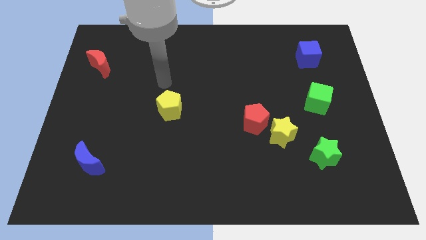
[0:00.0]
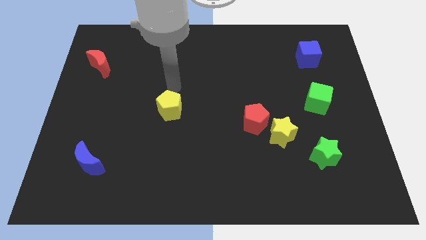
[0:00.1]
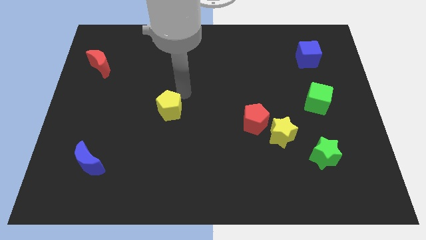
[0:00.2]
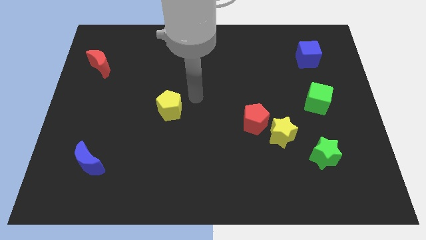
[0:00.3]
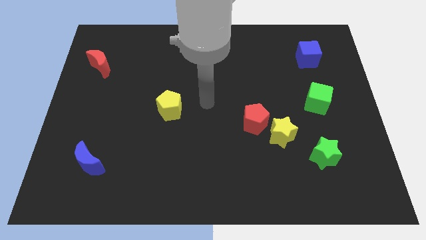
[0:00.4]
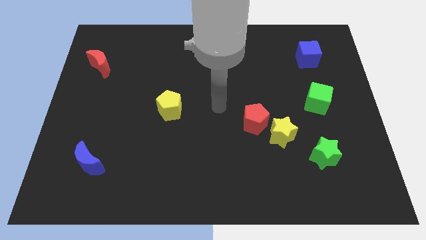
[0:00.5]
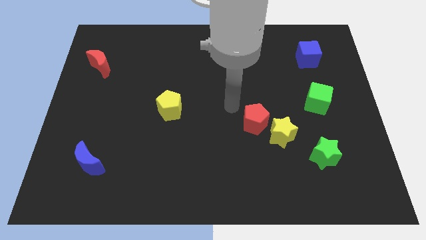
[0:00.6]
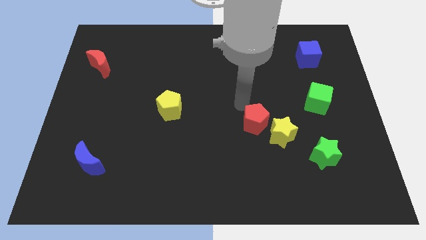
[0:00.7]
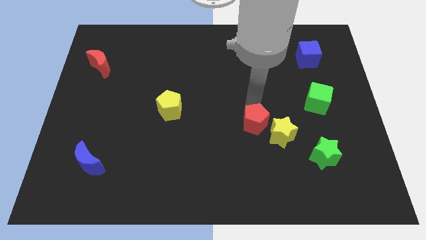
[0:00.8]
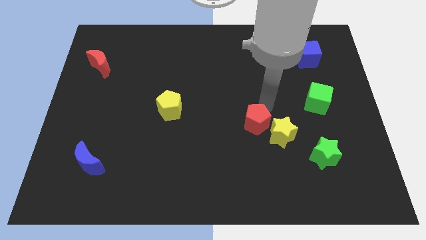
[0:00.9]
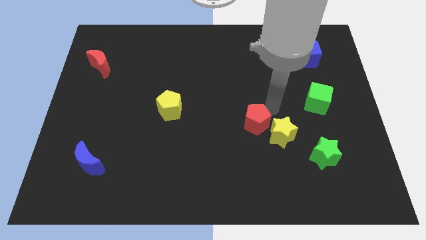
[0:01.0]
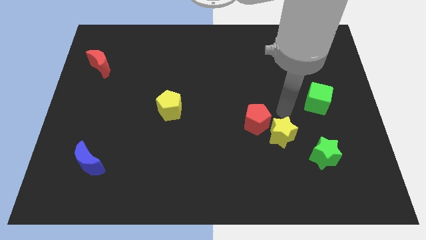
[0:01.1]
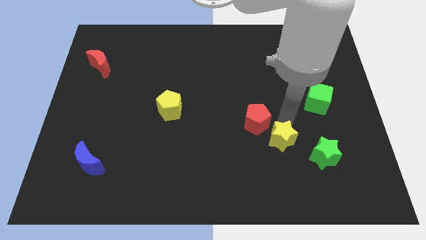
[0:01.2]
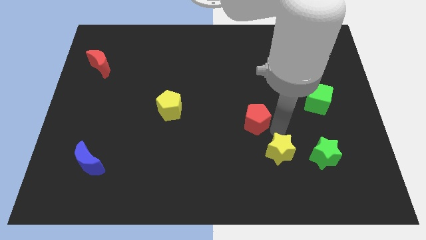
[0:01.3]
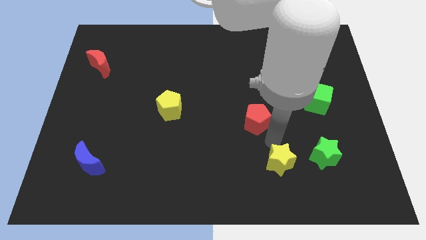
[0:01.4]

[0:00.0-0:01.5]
separate the red pentagon from the yellow star

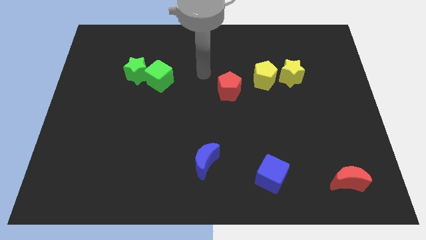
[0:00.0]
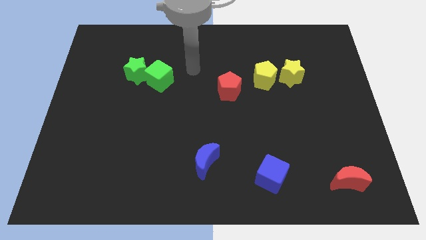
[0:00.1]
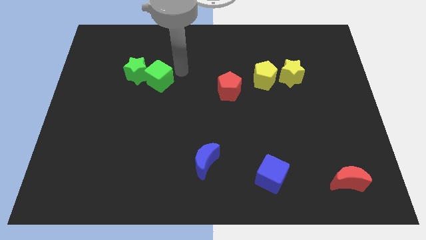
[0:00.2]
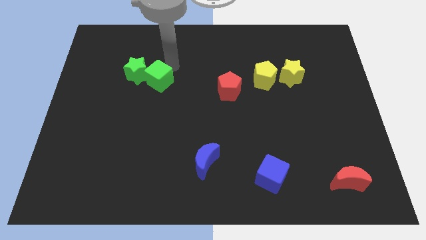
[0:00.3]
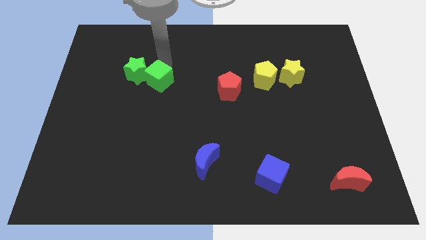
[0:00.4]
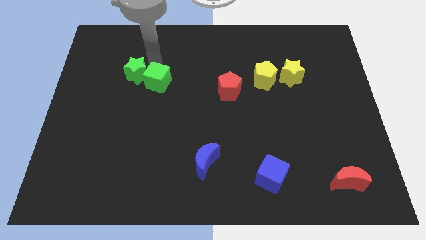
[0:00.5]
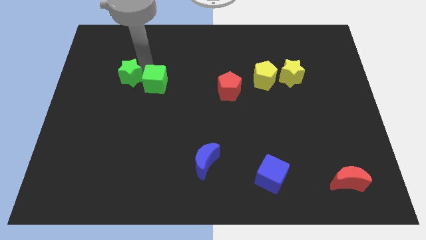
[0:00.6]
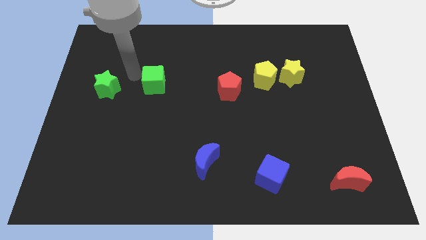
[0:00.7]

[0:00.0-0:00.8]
separate the green cube from the green star

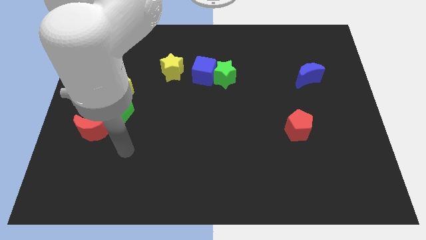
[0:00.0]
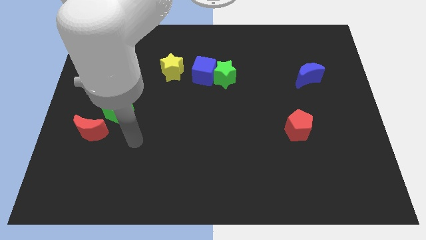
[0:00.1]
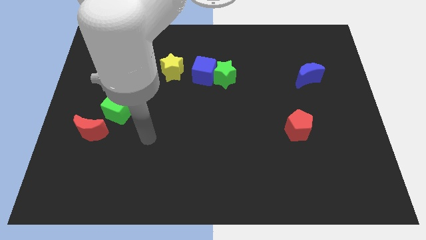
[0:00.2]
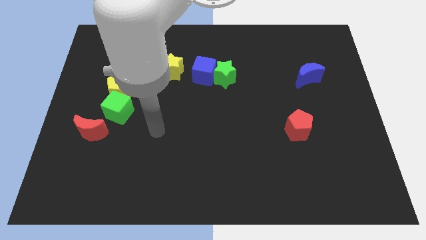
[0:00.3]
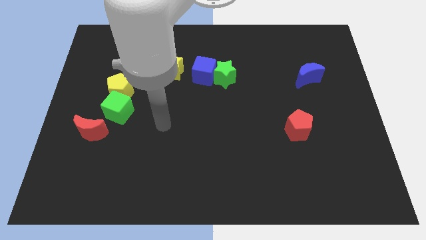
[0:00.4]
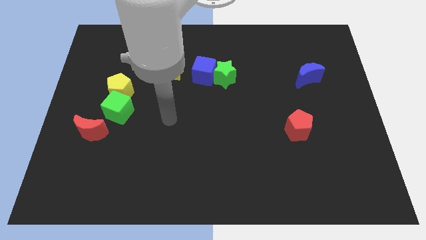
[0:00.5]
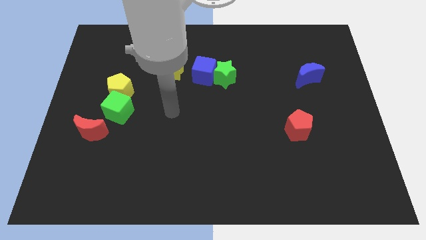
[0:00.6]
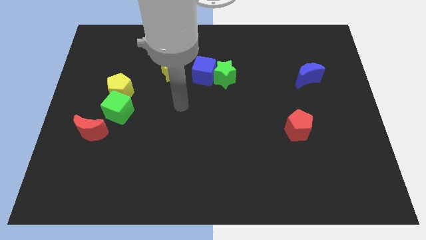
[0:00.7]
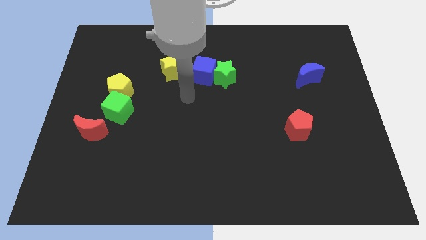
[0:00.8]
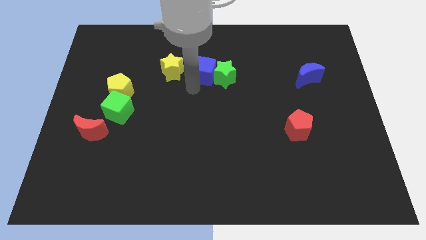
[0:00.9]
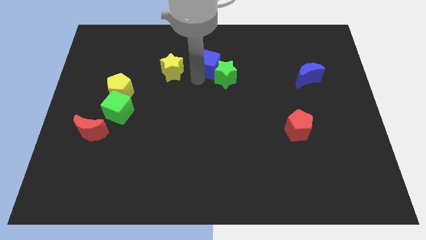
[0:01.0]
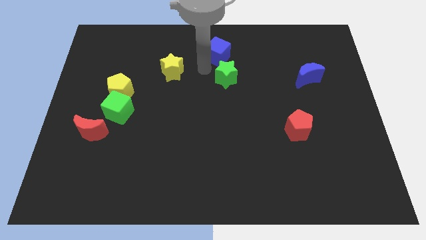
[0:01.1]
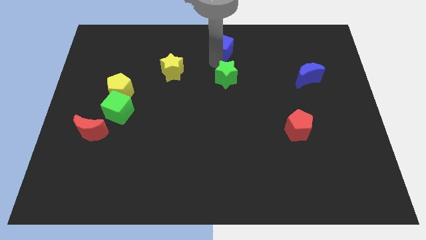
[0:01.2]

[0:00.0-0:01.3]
separate the green star from the blue cube

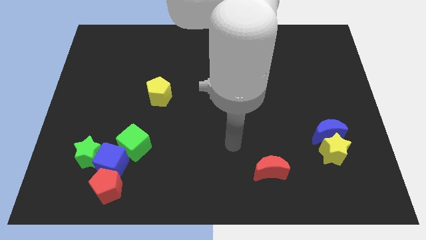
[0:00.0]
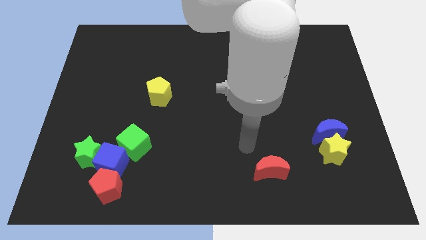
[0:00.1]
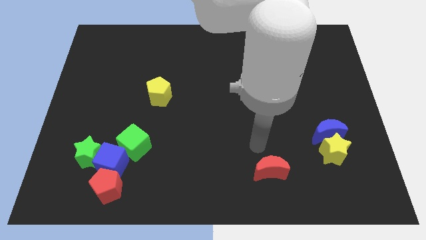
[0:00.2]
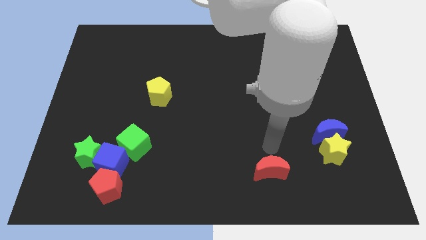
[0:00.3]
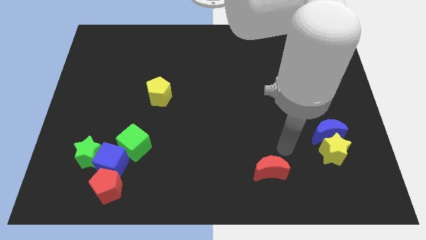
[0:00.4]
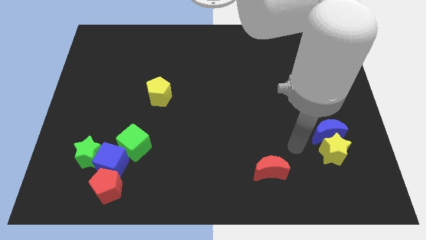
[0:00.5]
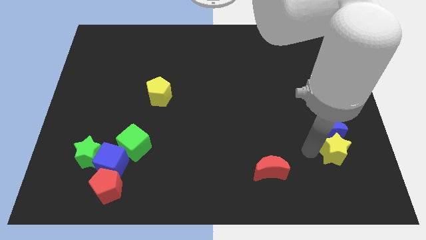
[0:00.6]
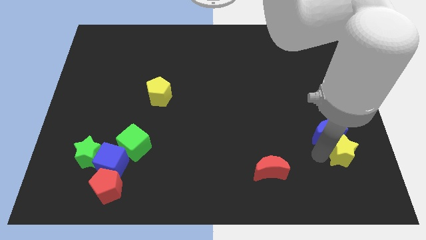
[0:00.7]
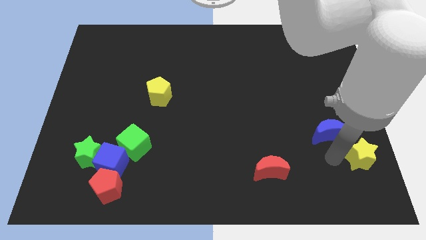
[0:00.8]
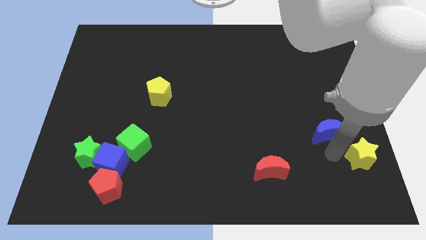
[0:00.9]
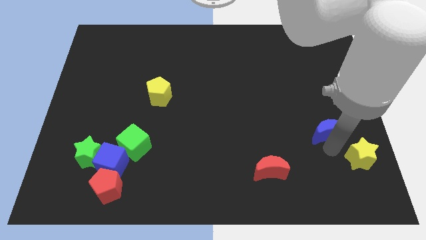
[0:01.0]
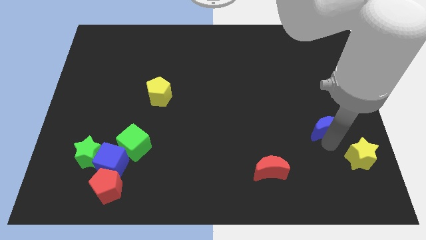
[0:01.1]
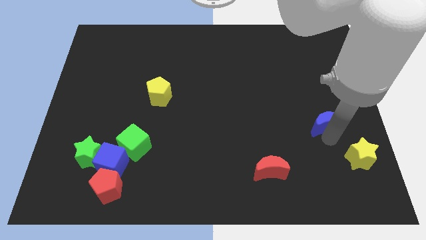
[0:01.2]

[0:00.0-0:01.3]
move the blue moon away from the yellow star

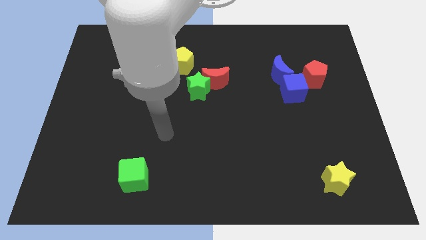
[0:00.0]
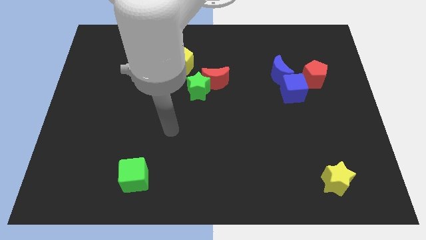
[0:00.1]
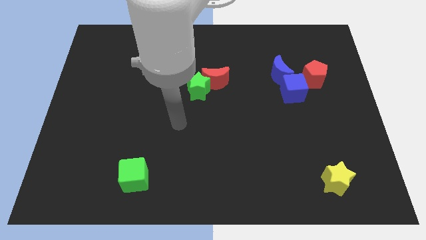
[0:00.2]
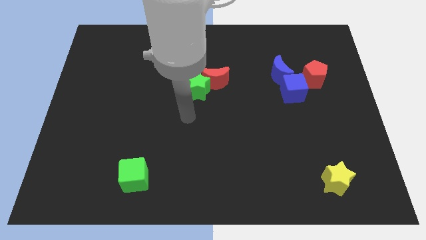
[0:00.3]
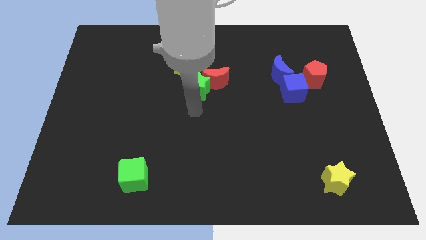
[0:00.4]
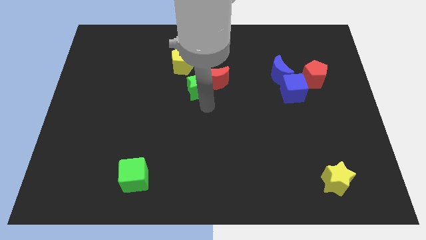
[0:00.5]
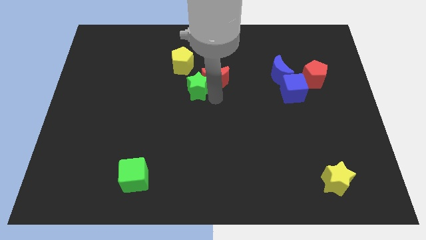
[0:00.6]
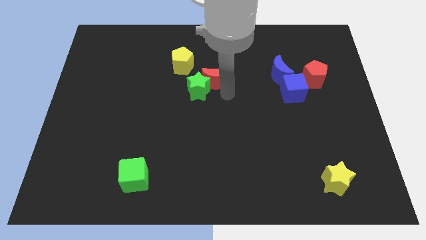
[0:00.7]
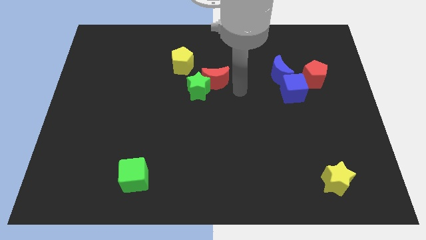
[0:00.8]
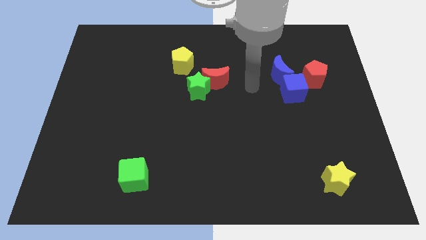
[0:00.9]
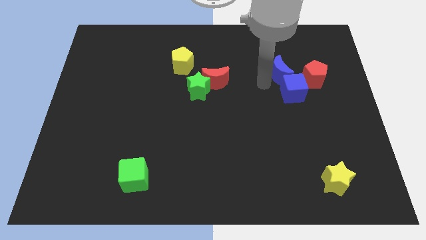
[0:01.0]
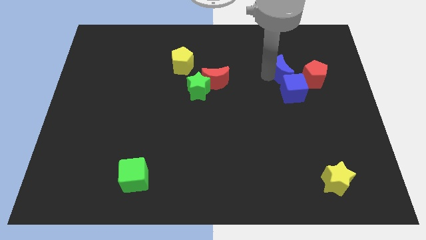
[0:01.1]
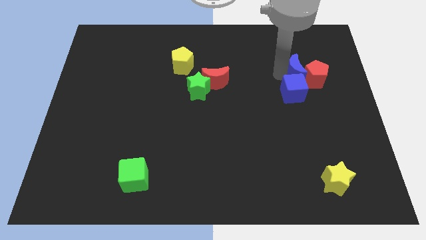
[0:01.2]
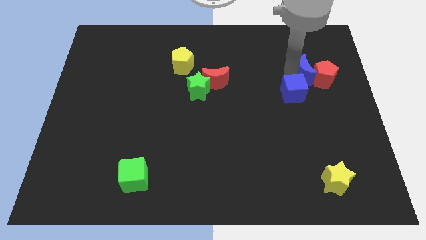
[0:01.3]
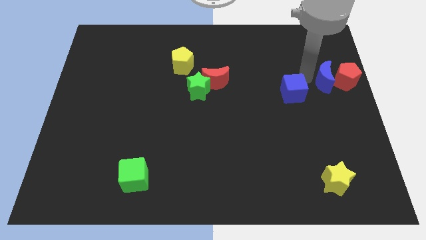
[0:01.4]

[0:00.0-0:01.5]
separate the blue cube from the blue moon and red pentagon

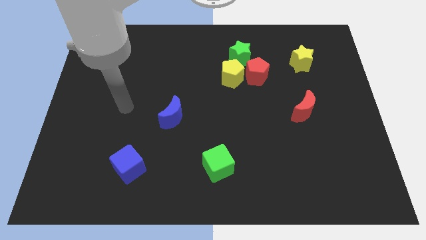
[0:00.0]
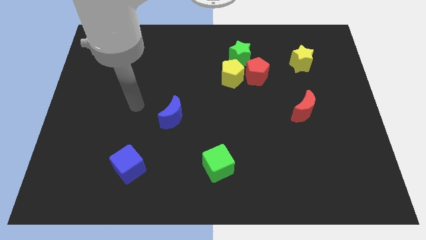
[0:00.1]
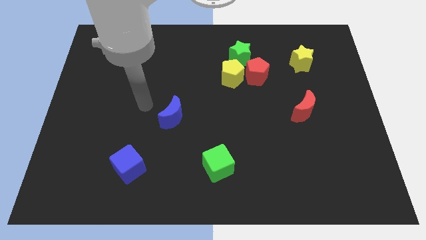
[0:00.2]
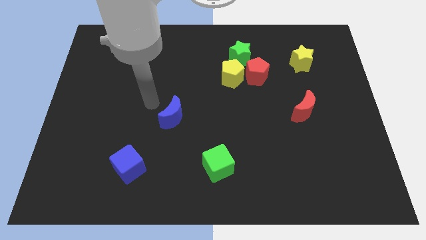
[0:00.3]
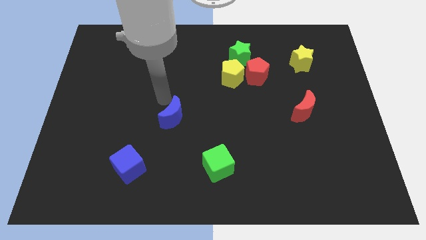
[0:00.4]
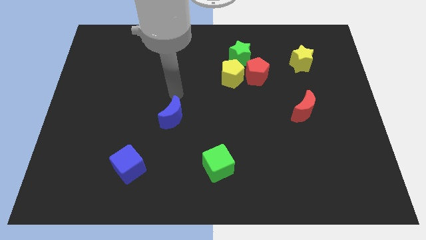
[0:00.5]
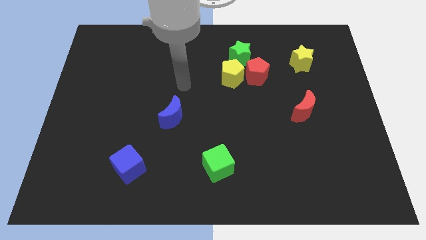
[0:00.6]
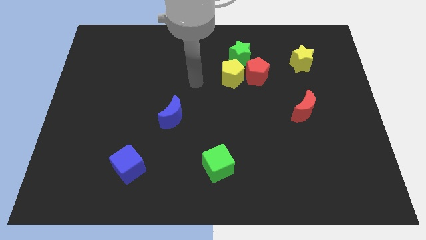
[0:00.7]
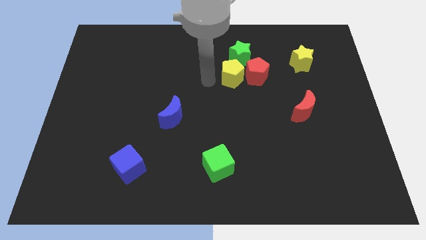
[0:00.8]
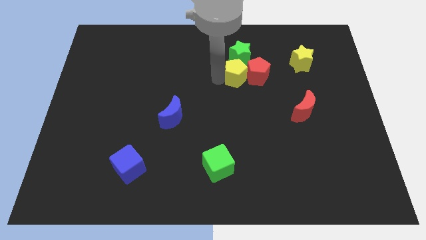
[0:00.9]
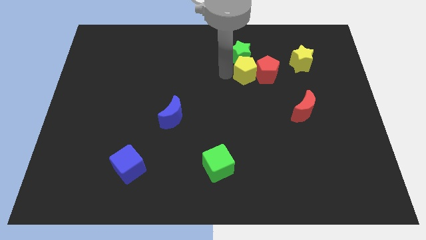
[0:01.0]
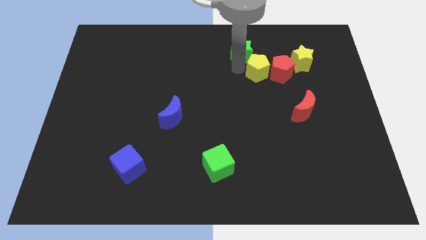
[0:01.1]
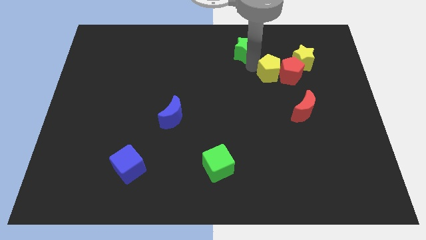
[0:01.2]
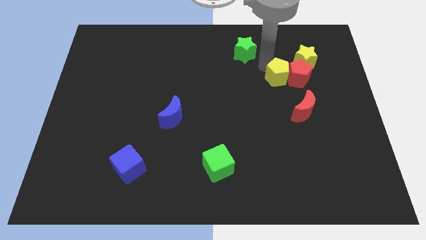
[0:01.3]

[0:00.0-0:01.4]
pull the red pentagon apart from the yellow pentagon and green star

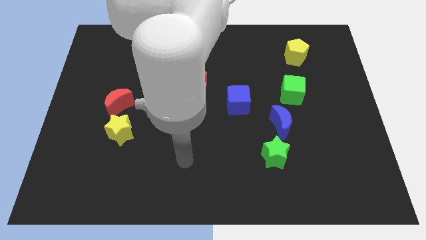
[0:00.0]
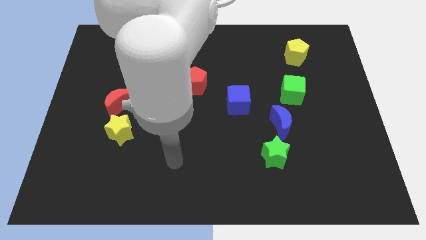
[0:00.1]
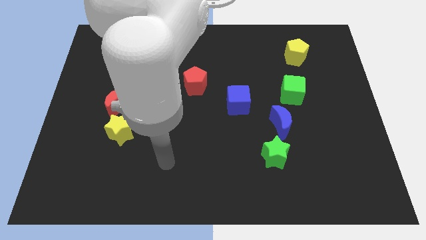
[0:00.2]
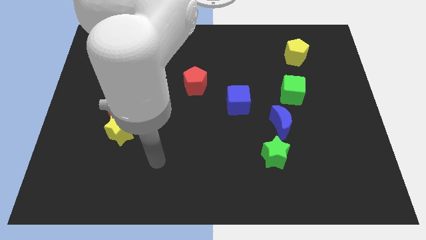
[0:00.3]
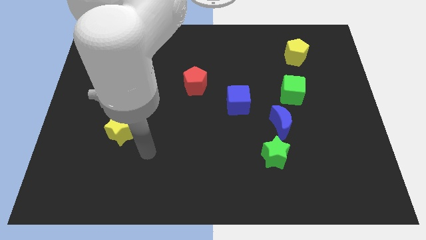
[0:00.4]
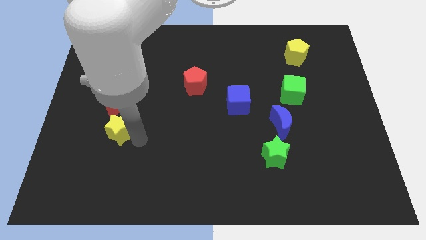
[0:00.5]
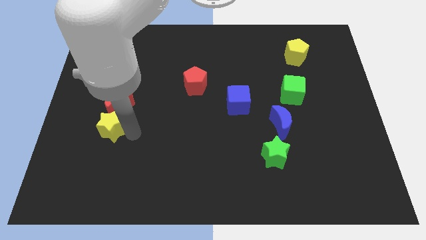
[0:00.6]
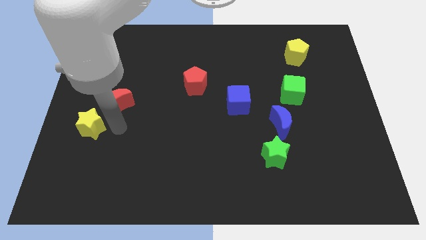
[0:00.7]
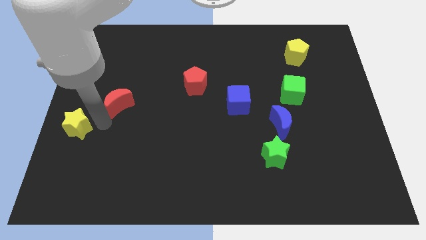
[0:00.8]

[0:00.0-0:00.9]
move the red moon away from the yellow star

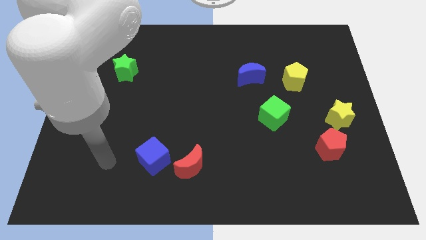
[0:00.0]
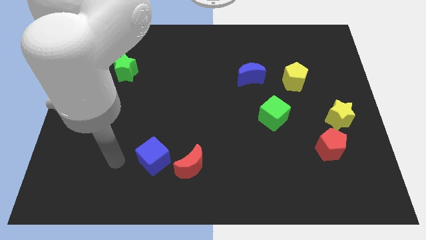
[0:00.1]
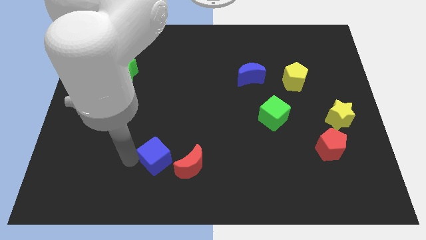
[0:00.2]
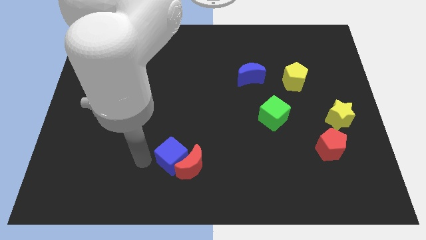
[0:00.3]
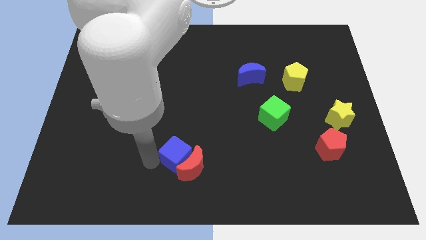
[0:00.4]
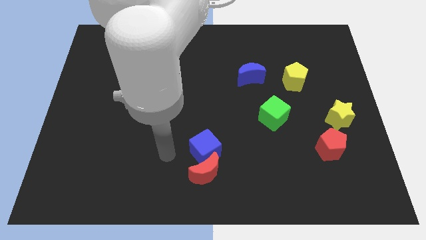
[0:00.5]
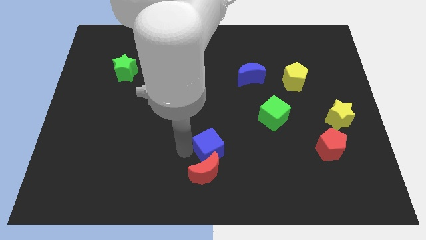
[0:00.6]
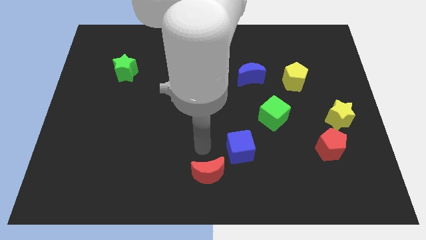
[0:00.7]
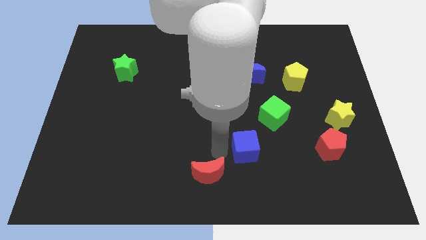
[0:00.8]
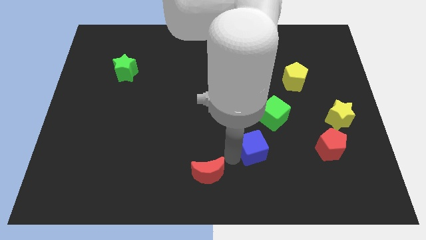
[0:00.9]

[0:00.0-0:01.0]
move the red moon away from the blue cube
